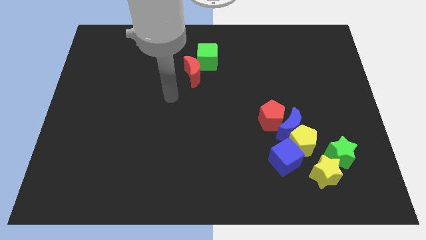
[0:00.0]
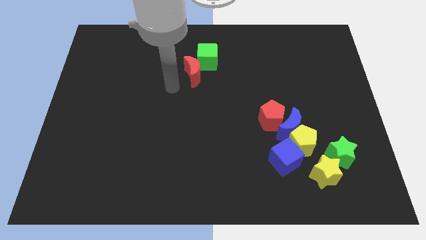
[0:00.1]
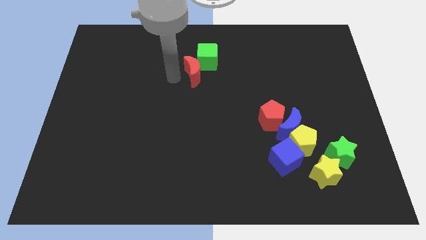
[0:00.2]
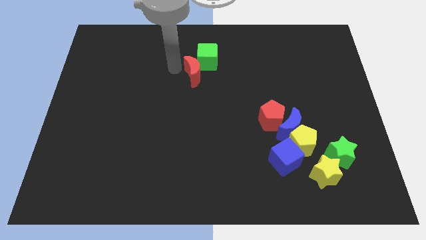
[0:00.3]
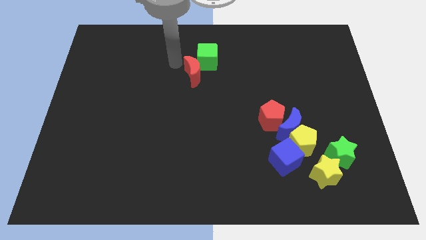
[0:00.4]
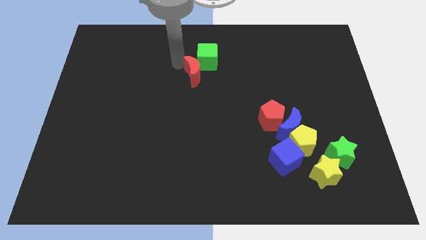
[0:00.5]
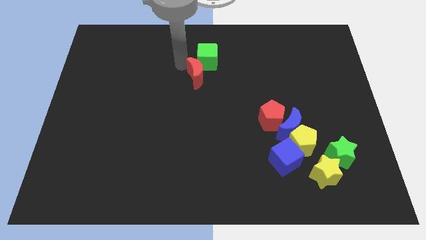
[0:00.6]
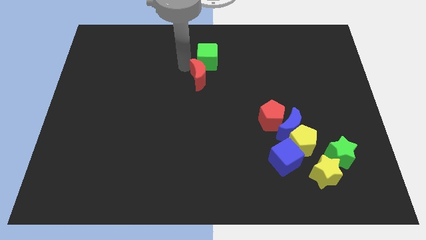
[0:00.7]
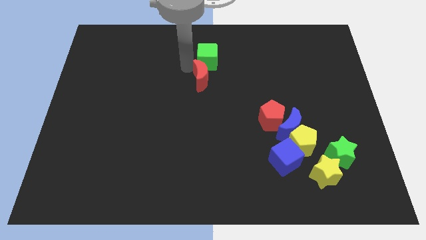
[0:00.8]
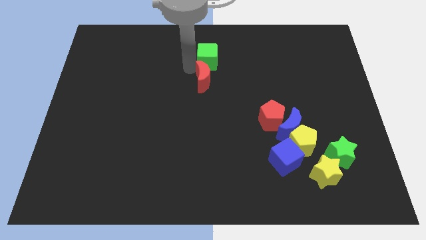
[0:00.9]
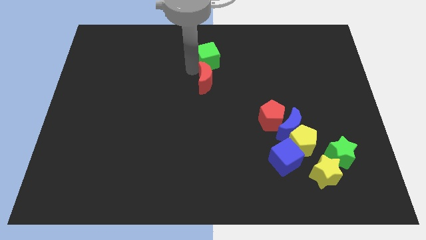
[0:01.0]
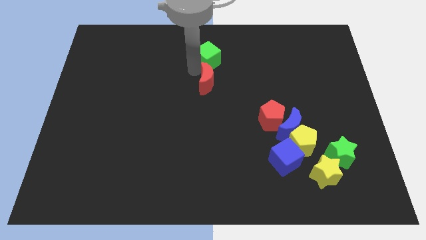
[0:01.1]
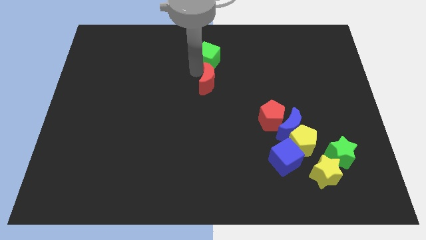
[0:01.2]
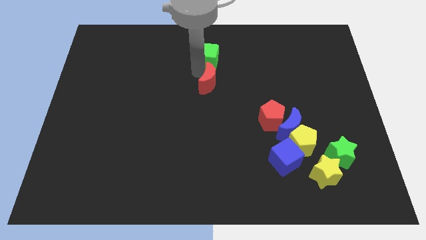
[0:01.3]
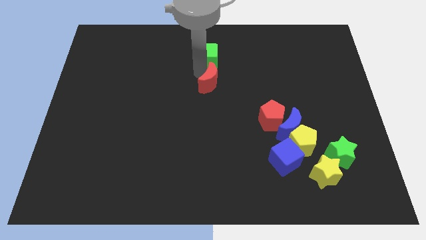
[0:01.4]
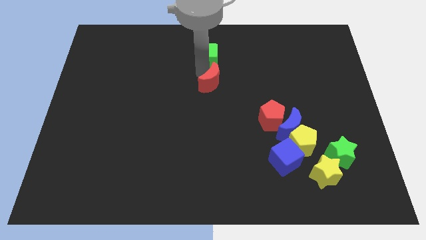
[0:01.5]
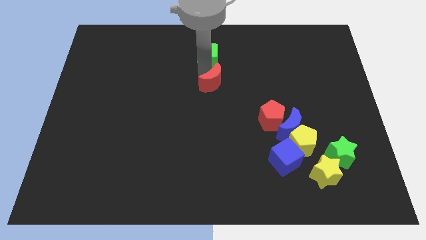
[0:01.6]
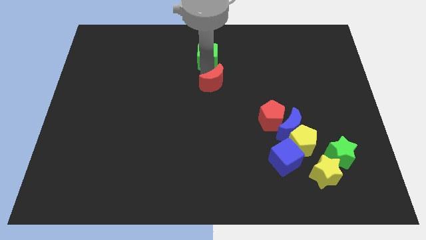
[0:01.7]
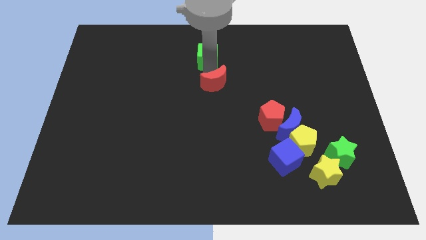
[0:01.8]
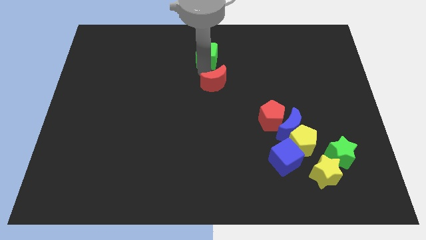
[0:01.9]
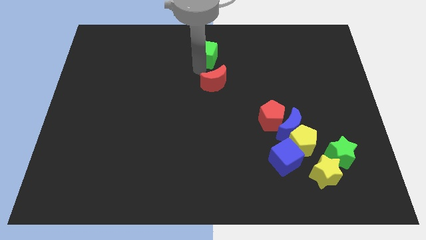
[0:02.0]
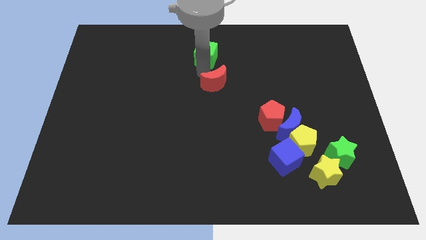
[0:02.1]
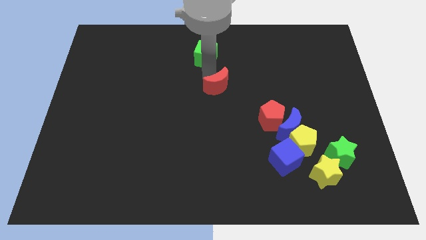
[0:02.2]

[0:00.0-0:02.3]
slightly slide the red moon down and right diagonally

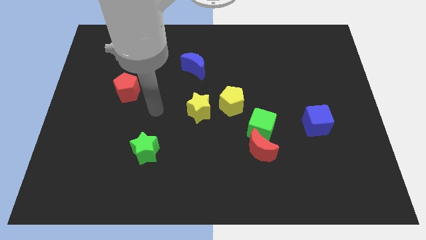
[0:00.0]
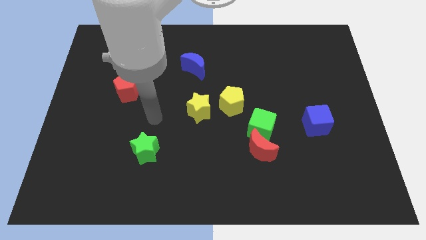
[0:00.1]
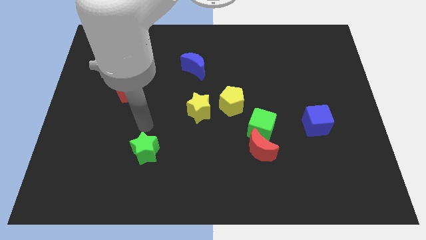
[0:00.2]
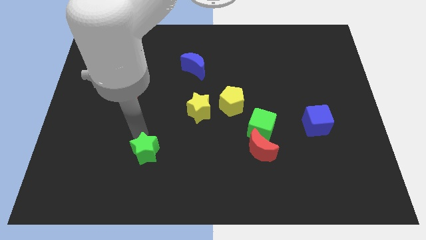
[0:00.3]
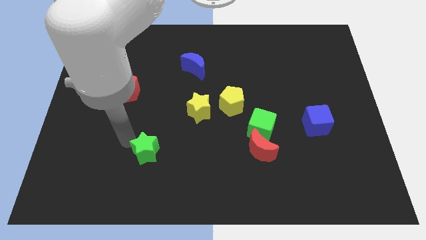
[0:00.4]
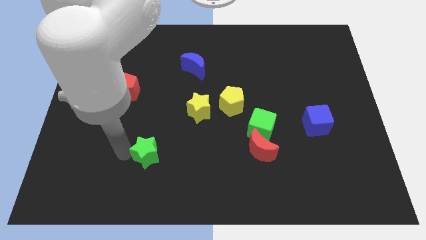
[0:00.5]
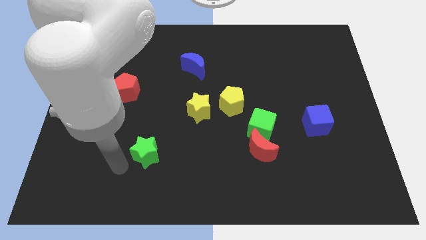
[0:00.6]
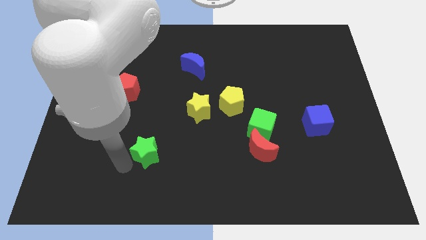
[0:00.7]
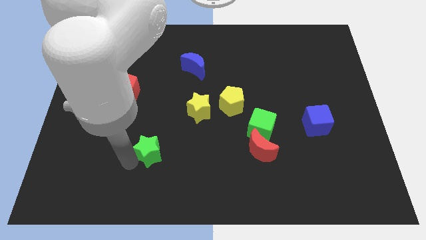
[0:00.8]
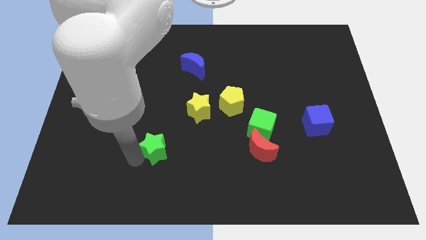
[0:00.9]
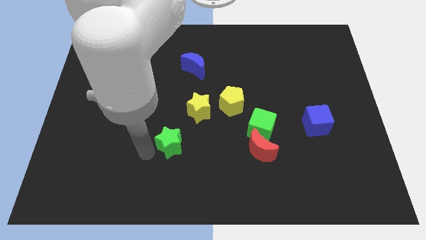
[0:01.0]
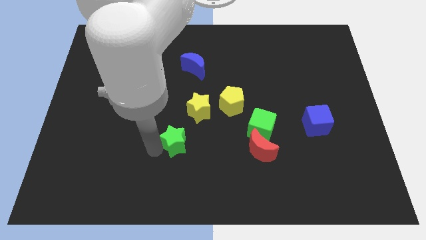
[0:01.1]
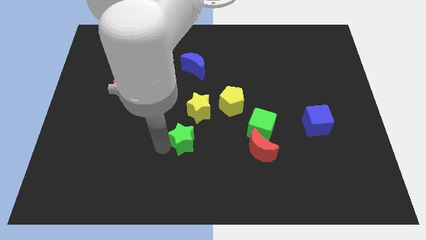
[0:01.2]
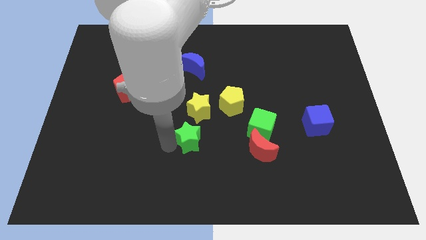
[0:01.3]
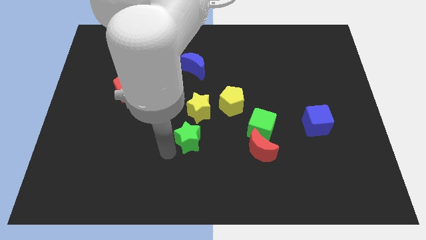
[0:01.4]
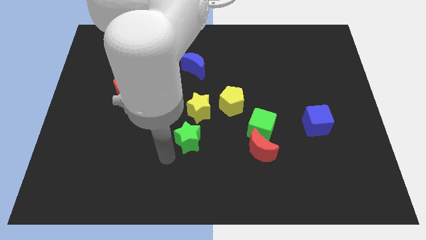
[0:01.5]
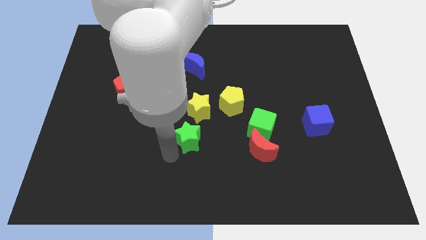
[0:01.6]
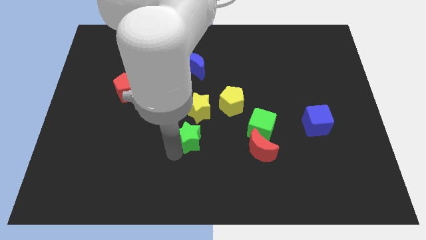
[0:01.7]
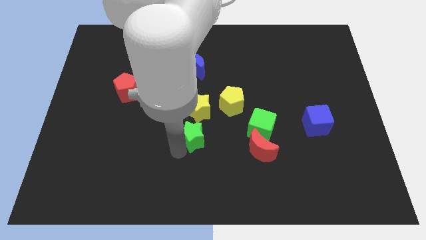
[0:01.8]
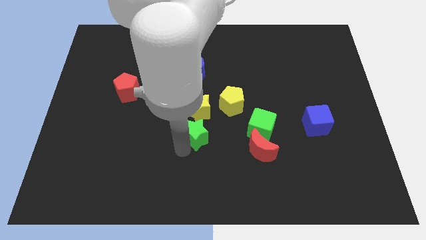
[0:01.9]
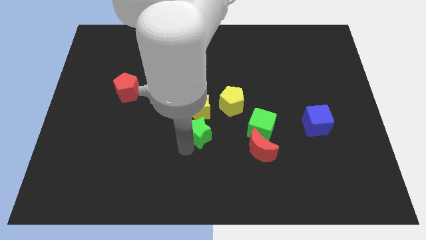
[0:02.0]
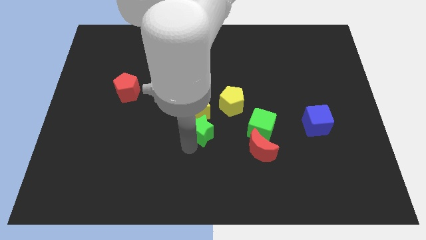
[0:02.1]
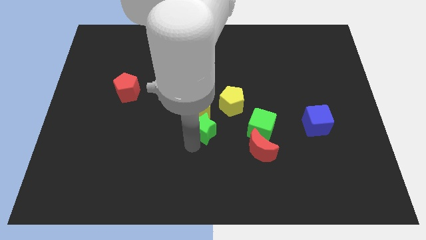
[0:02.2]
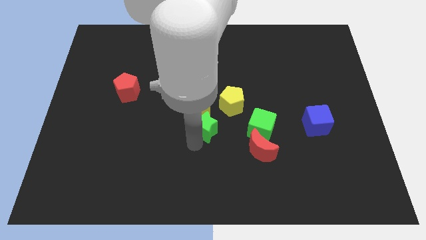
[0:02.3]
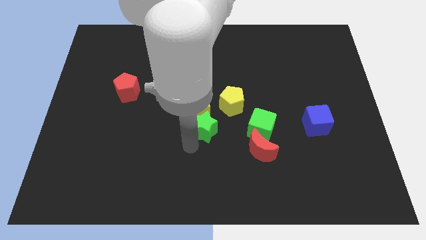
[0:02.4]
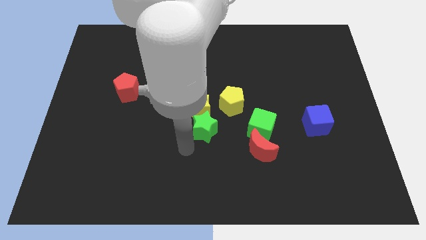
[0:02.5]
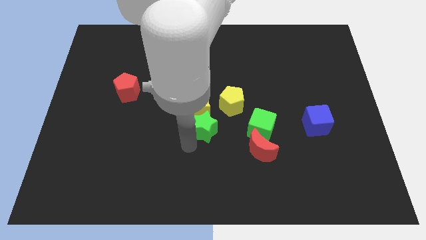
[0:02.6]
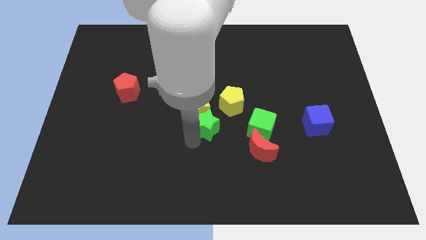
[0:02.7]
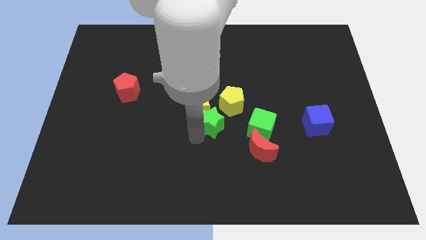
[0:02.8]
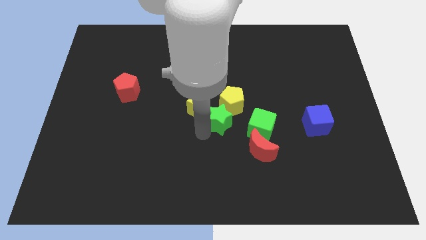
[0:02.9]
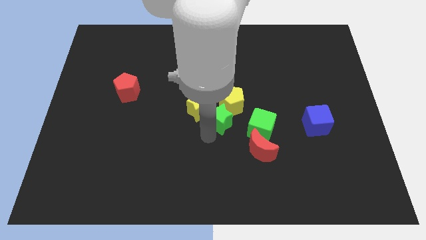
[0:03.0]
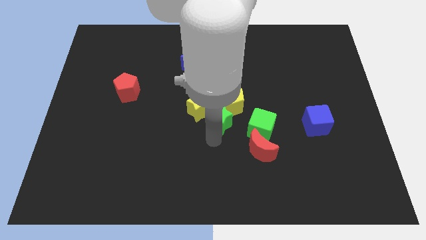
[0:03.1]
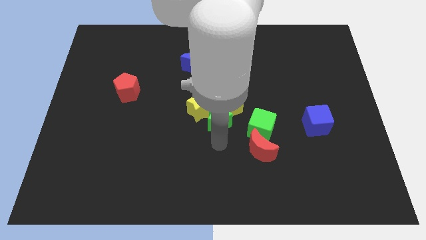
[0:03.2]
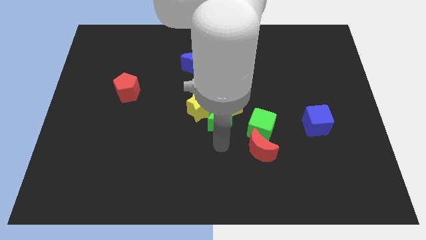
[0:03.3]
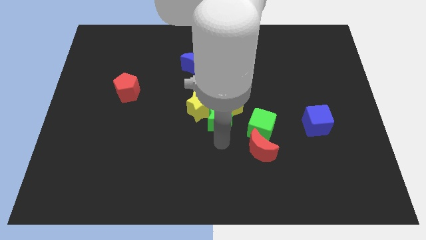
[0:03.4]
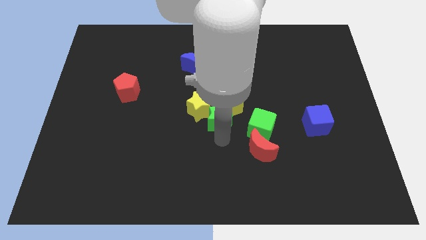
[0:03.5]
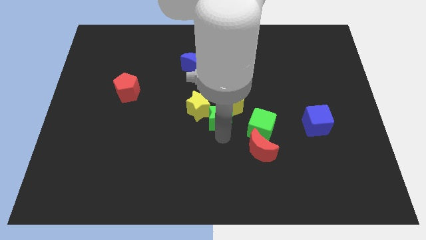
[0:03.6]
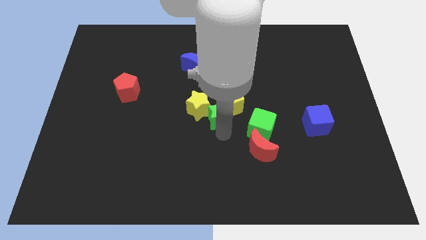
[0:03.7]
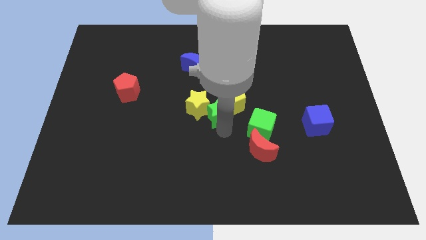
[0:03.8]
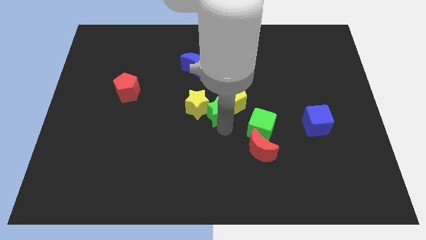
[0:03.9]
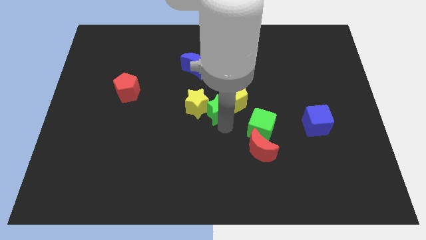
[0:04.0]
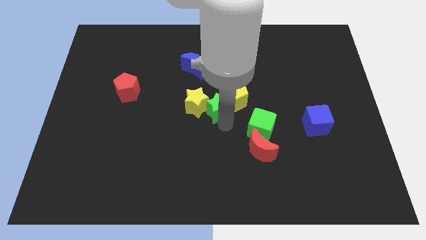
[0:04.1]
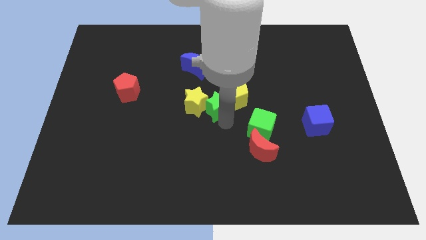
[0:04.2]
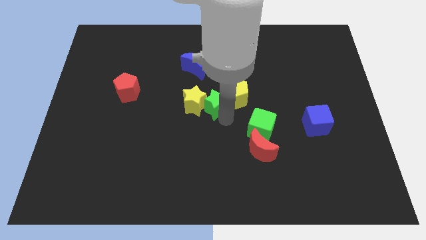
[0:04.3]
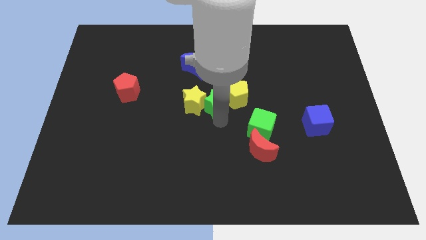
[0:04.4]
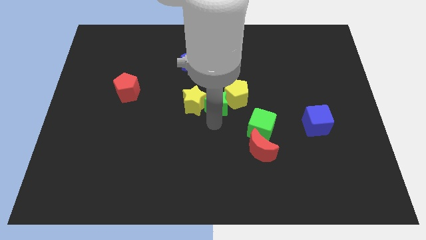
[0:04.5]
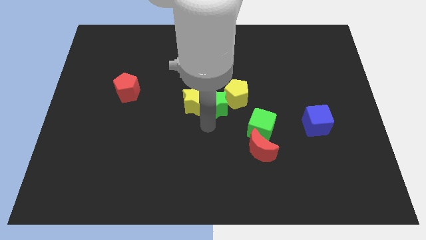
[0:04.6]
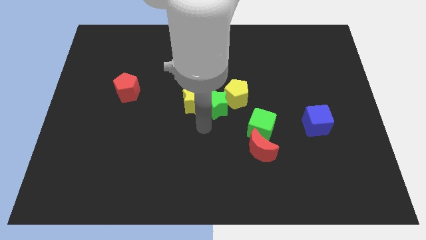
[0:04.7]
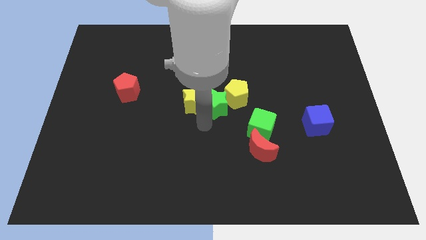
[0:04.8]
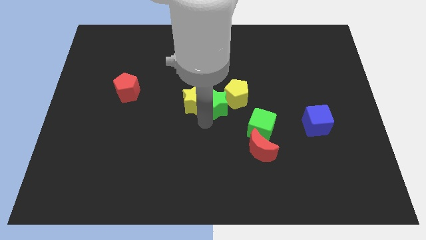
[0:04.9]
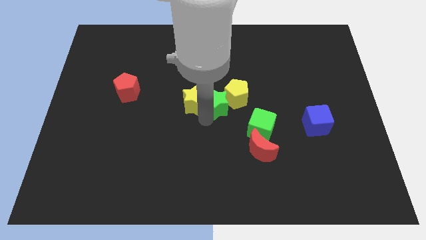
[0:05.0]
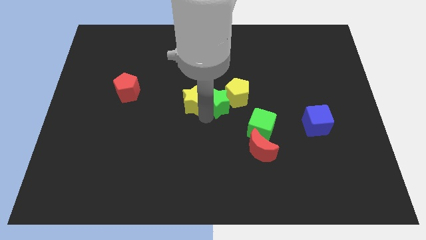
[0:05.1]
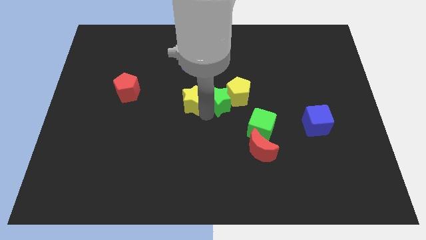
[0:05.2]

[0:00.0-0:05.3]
slide the green star upwards and then right

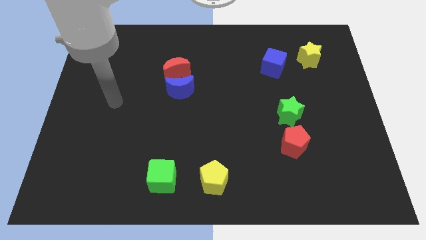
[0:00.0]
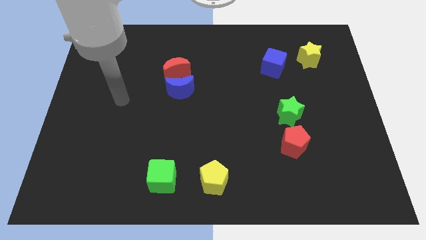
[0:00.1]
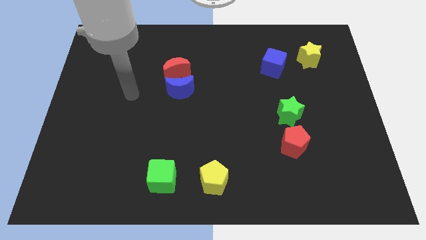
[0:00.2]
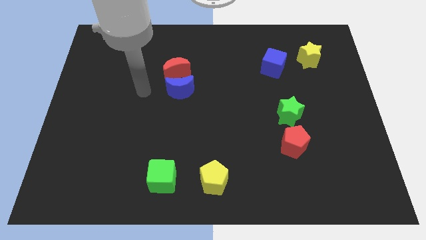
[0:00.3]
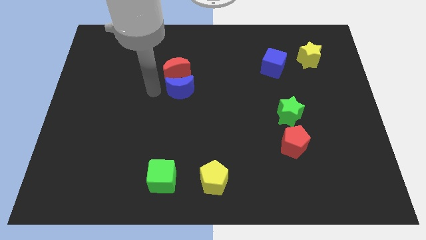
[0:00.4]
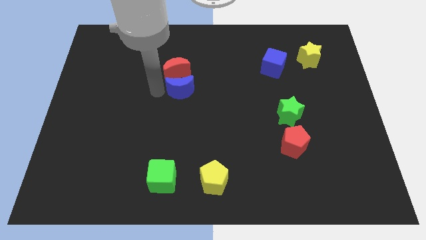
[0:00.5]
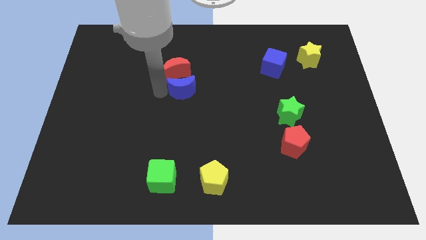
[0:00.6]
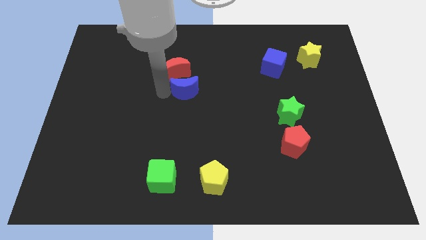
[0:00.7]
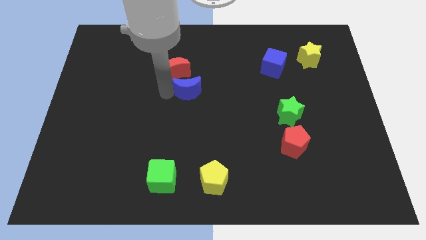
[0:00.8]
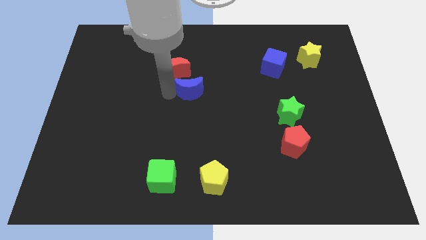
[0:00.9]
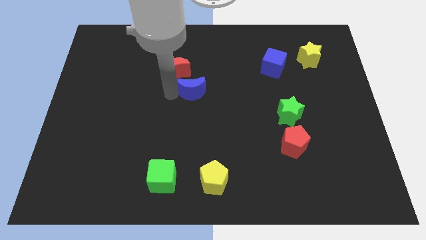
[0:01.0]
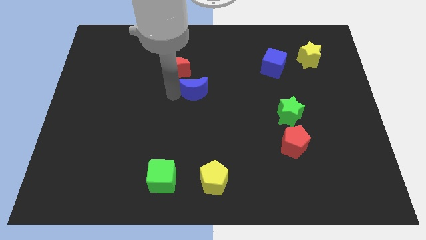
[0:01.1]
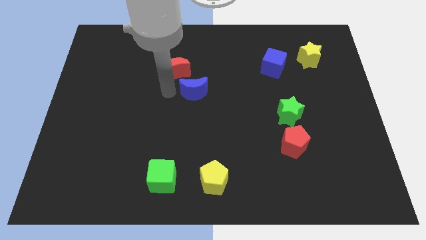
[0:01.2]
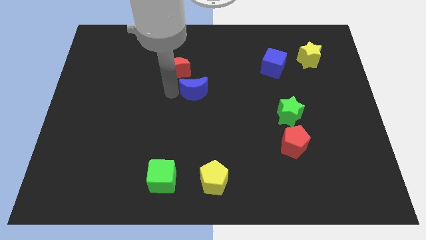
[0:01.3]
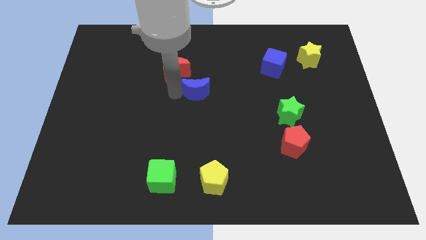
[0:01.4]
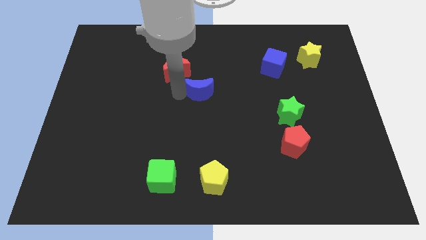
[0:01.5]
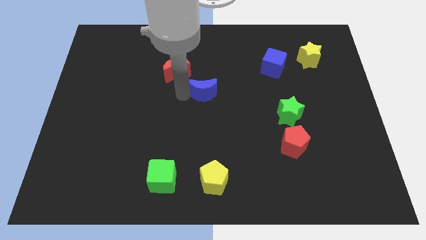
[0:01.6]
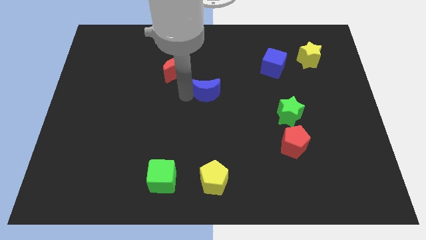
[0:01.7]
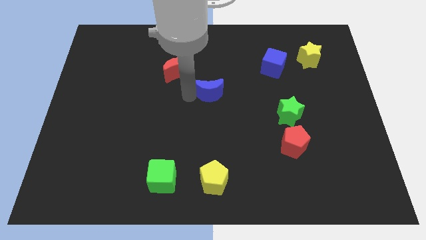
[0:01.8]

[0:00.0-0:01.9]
slide the blue moon slightly right
